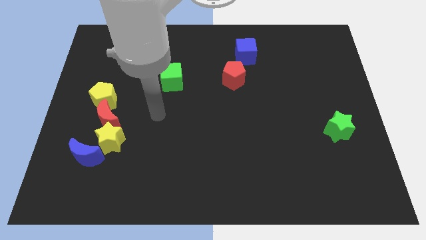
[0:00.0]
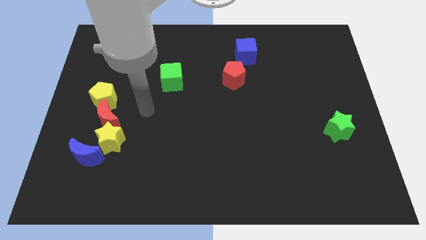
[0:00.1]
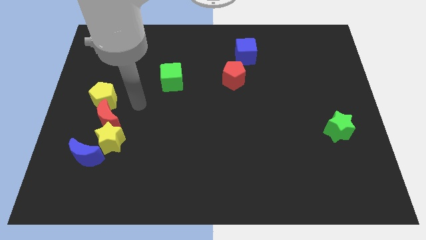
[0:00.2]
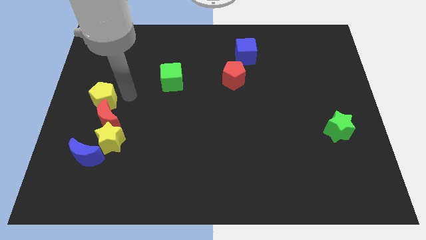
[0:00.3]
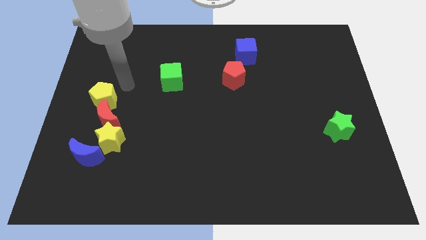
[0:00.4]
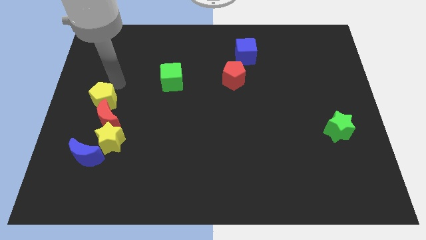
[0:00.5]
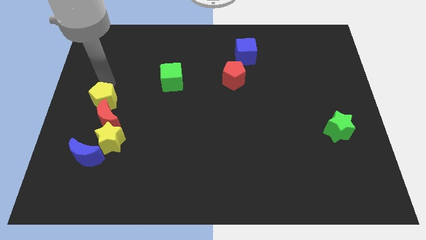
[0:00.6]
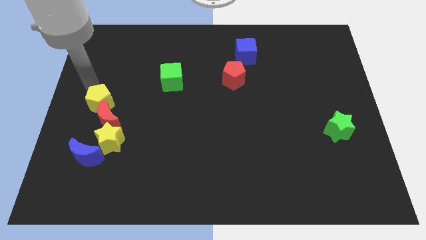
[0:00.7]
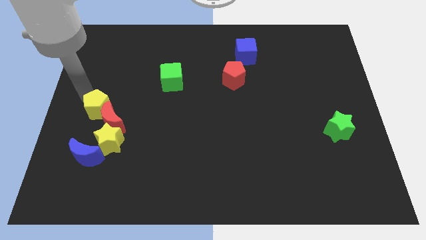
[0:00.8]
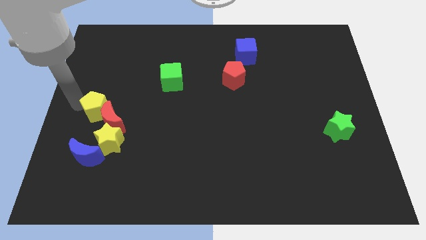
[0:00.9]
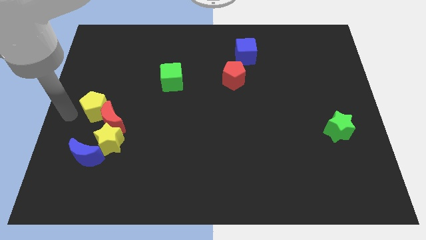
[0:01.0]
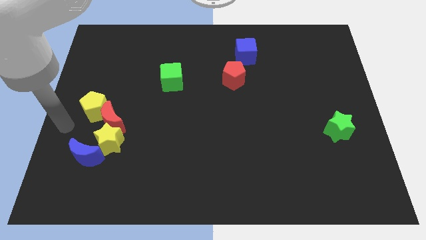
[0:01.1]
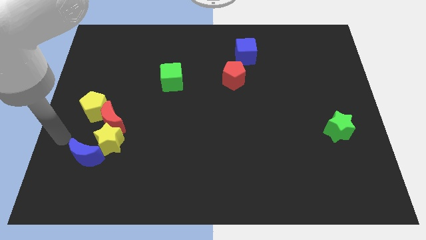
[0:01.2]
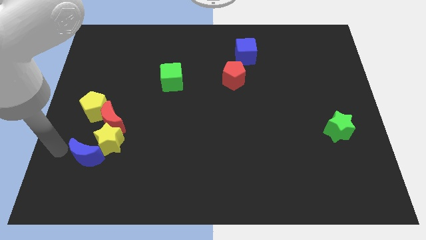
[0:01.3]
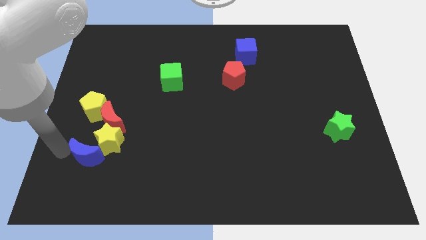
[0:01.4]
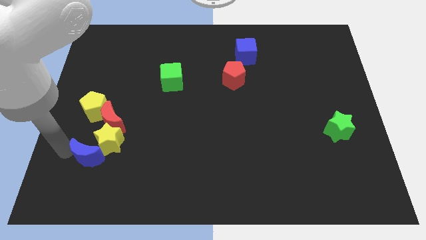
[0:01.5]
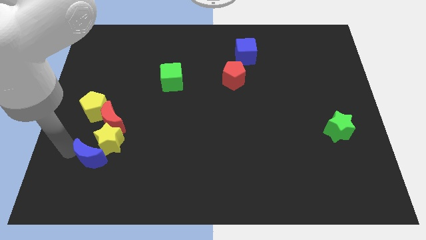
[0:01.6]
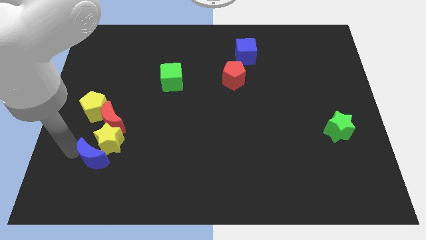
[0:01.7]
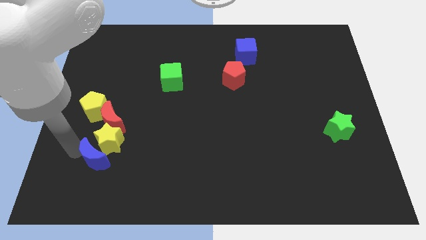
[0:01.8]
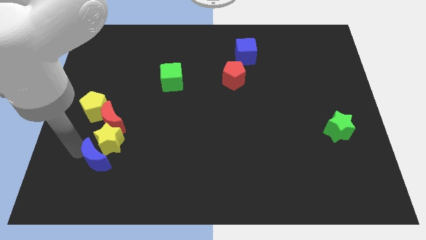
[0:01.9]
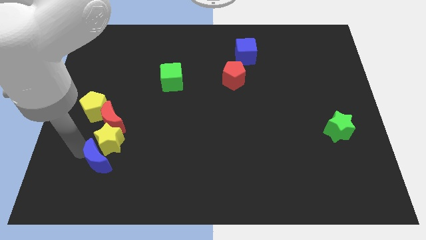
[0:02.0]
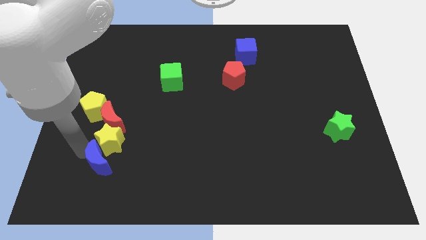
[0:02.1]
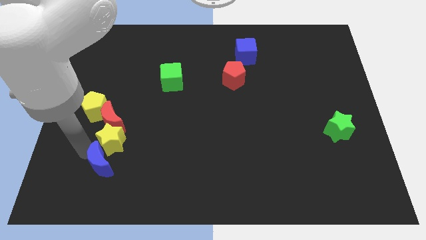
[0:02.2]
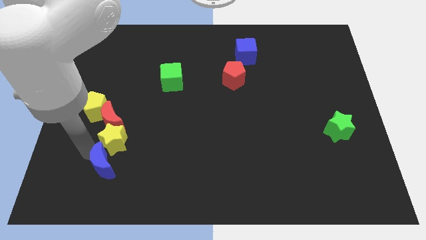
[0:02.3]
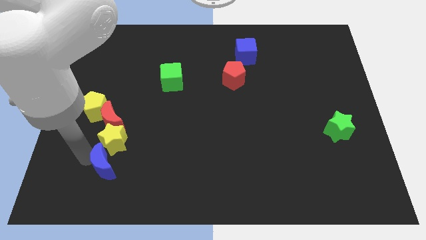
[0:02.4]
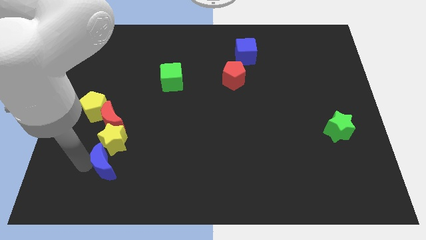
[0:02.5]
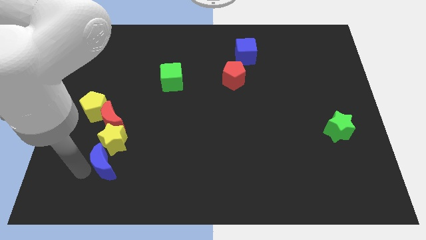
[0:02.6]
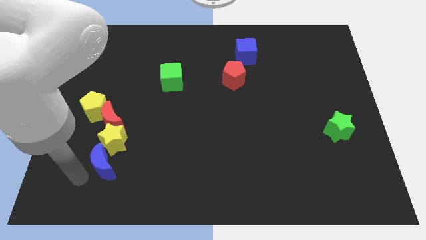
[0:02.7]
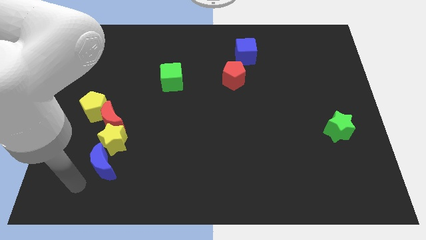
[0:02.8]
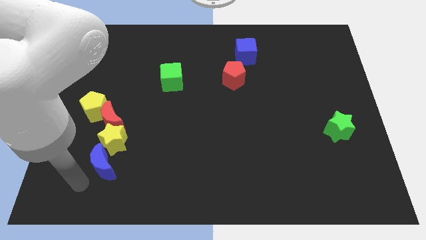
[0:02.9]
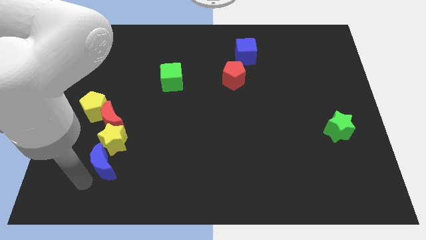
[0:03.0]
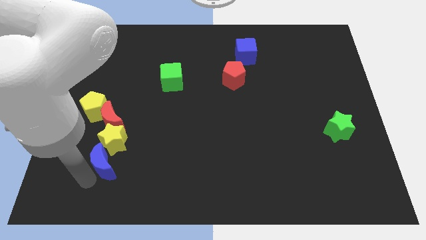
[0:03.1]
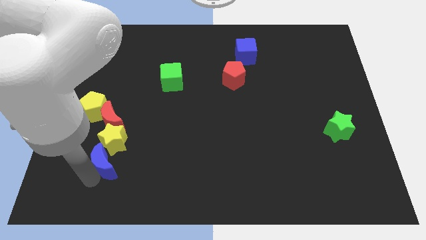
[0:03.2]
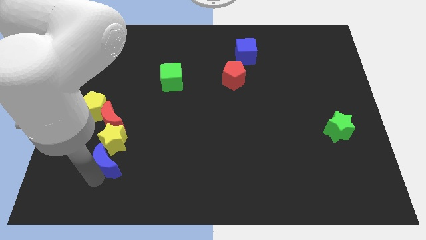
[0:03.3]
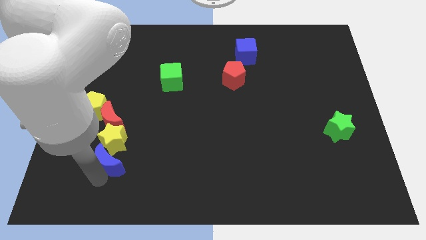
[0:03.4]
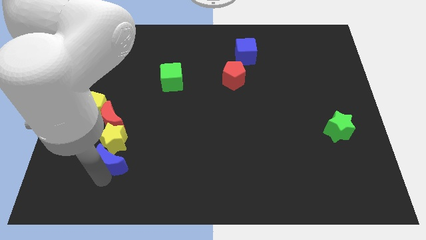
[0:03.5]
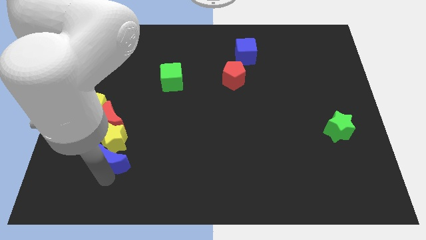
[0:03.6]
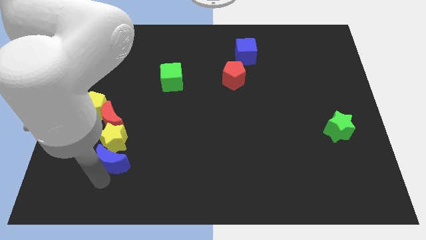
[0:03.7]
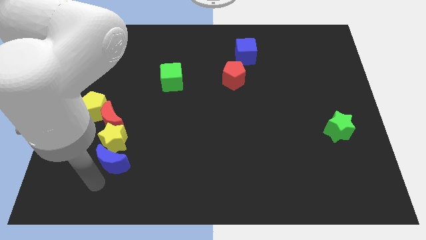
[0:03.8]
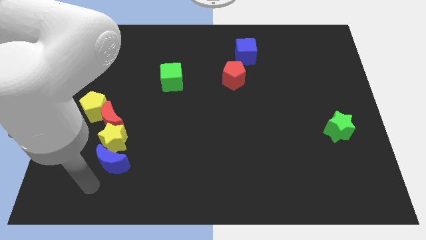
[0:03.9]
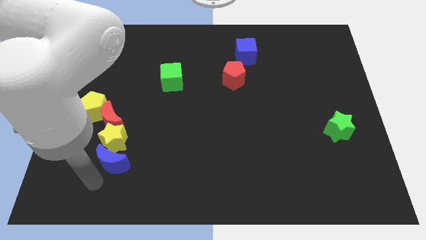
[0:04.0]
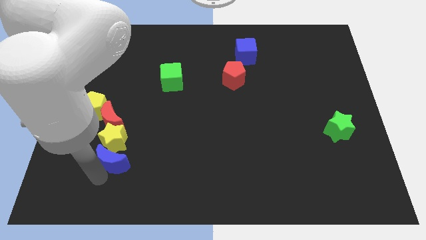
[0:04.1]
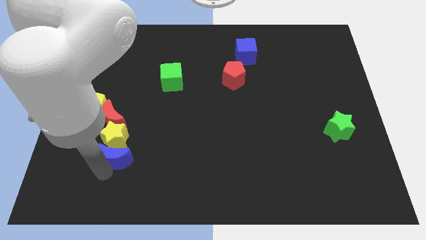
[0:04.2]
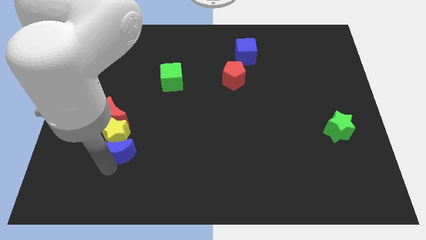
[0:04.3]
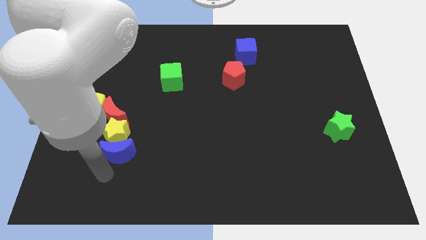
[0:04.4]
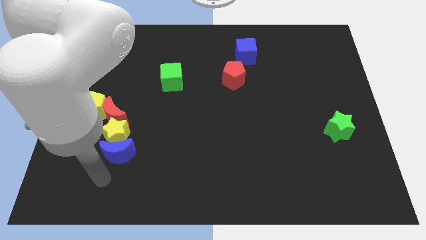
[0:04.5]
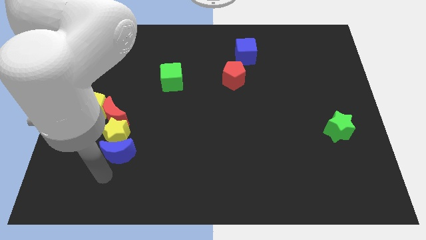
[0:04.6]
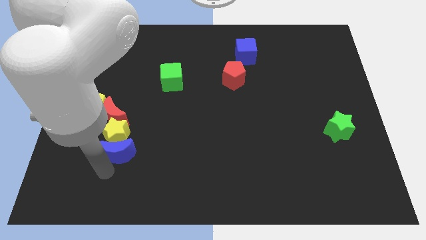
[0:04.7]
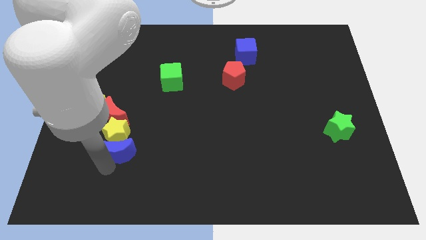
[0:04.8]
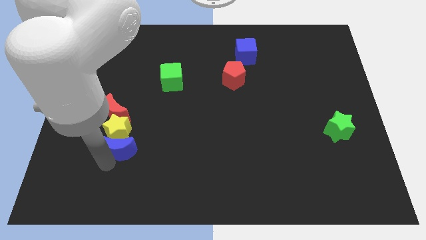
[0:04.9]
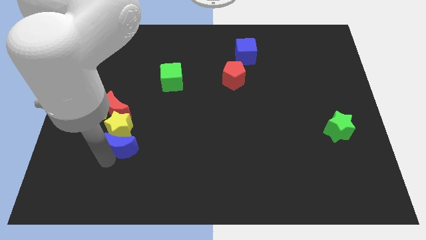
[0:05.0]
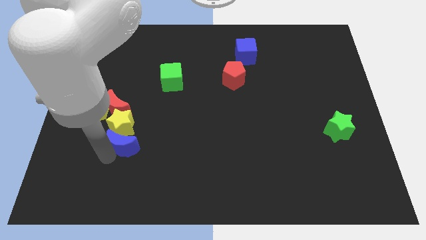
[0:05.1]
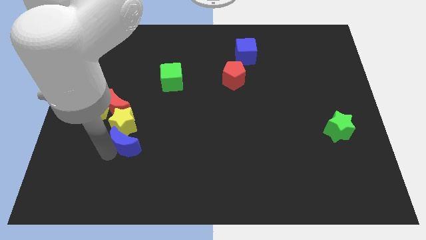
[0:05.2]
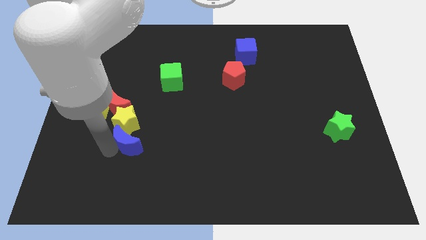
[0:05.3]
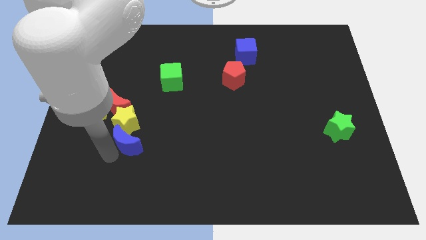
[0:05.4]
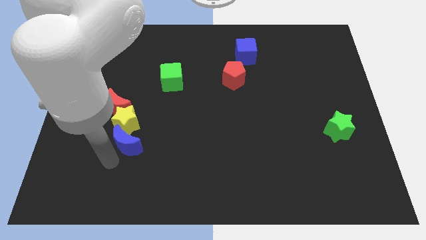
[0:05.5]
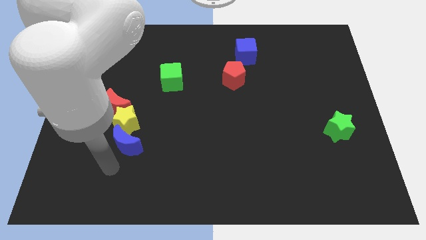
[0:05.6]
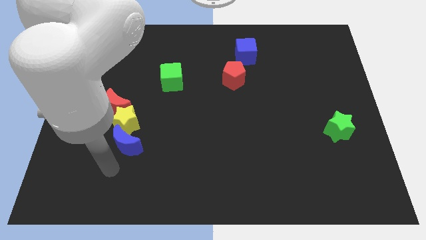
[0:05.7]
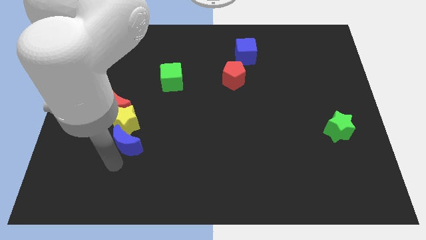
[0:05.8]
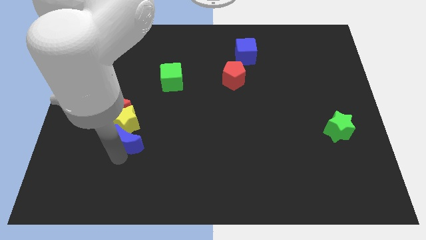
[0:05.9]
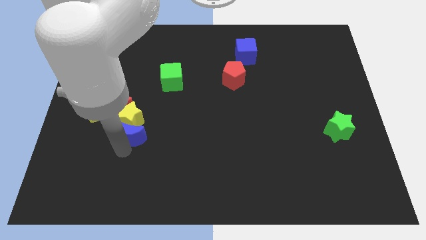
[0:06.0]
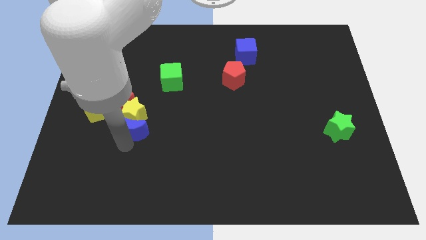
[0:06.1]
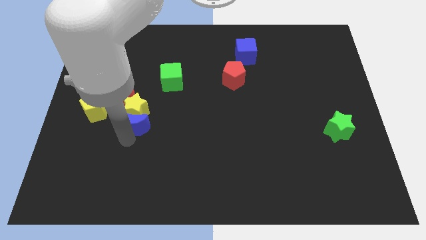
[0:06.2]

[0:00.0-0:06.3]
move the blue moon right of the yellow pentagon

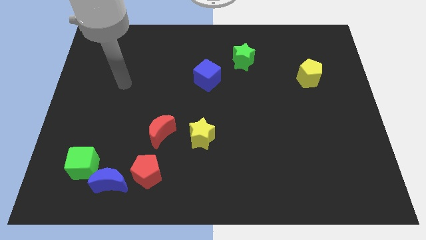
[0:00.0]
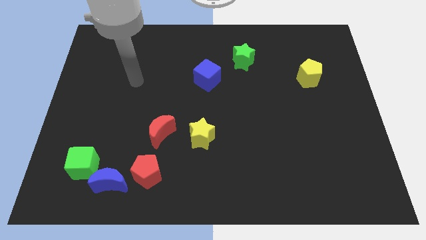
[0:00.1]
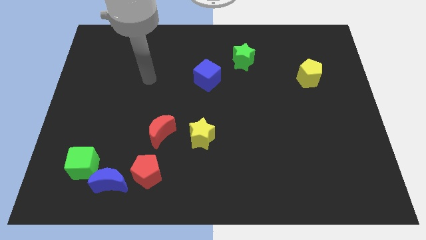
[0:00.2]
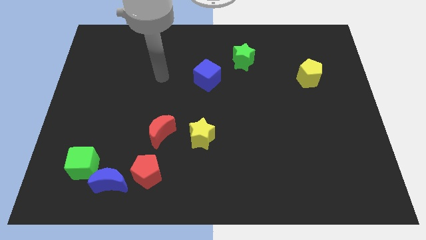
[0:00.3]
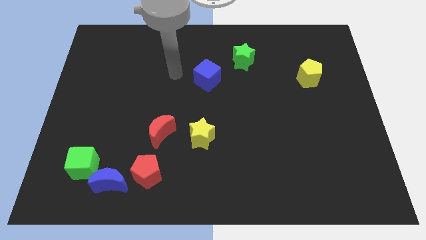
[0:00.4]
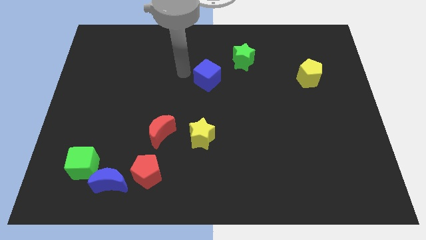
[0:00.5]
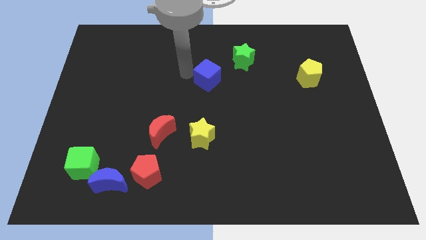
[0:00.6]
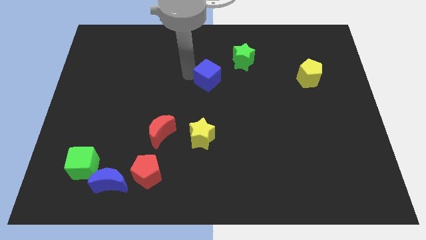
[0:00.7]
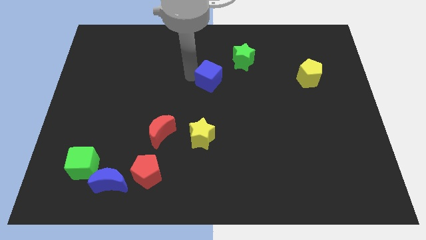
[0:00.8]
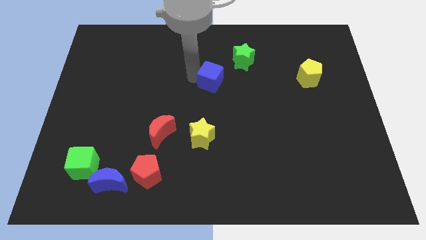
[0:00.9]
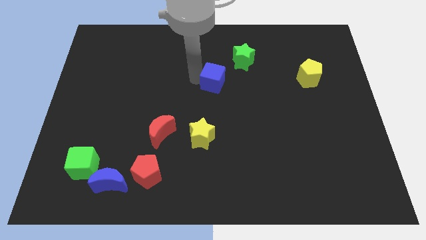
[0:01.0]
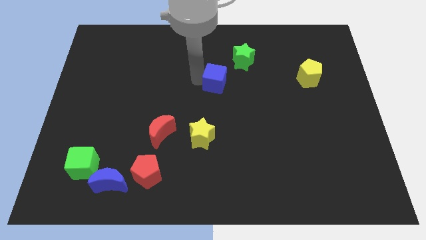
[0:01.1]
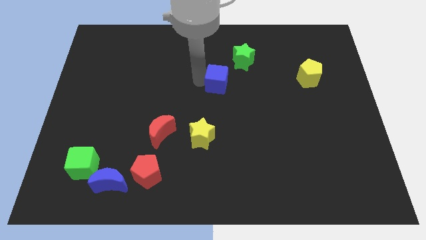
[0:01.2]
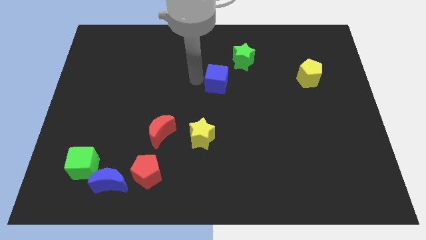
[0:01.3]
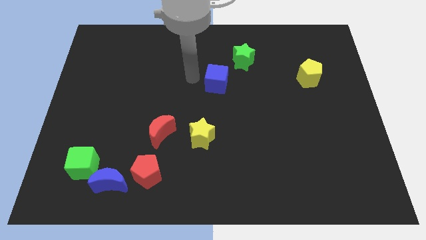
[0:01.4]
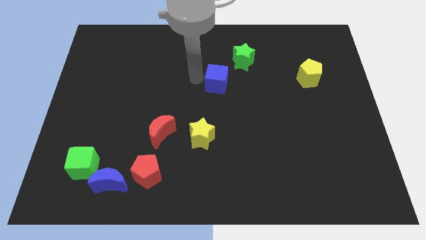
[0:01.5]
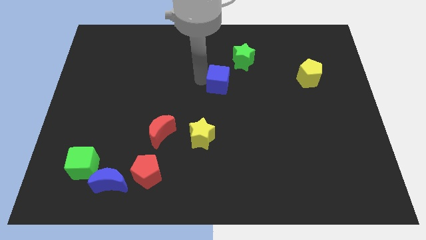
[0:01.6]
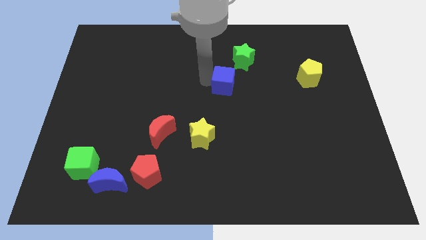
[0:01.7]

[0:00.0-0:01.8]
put the blue cube below the green star
